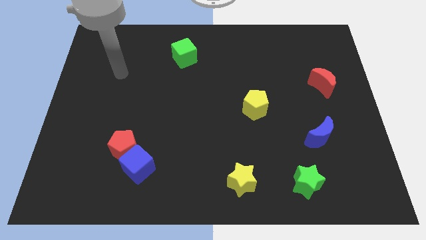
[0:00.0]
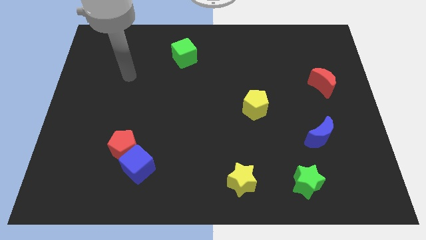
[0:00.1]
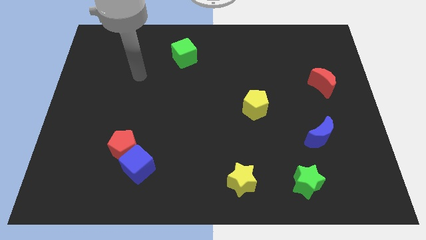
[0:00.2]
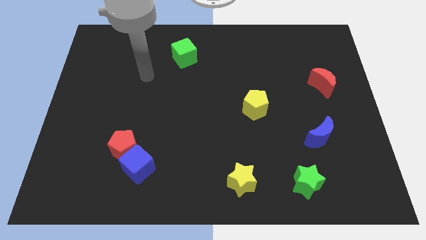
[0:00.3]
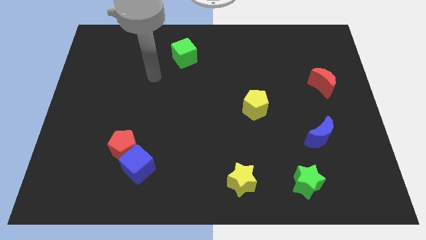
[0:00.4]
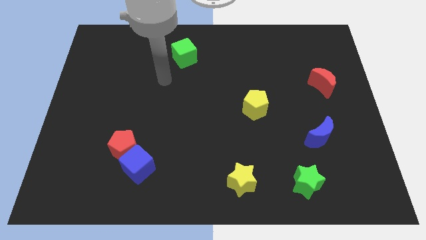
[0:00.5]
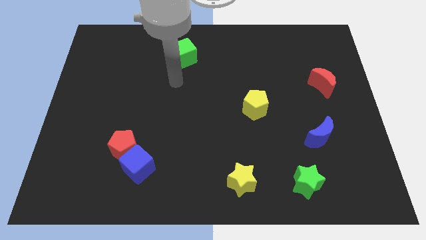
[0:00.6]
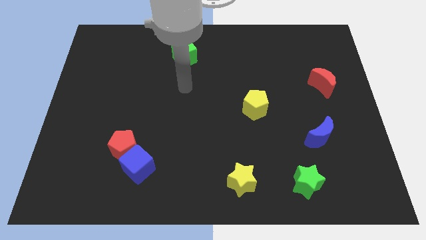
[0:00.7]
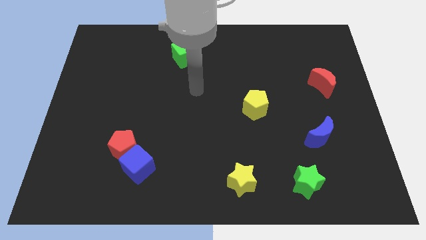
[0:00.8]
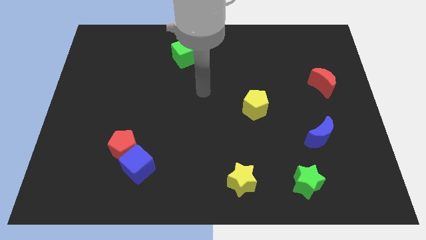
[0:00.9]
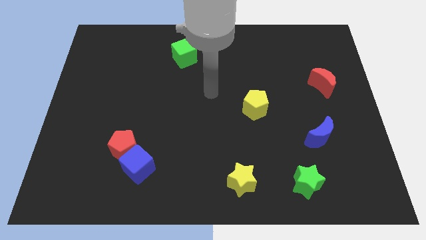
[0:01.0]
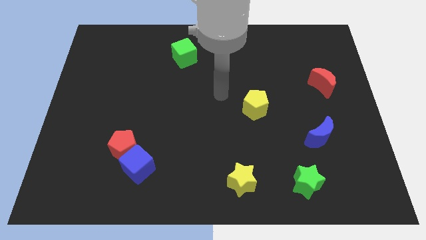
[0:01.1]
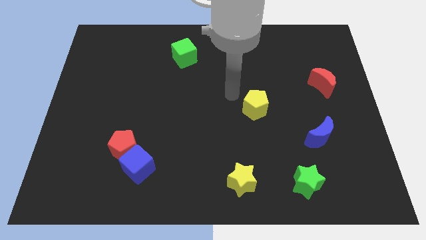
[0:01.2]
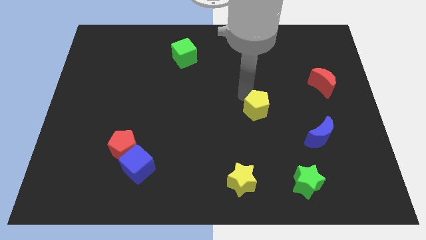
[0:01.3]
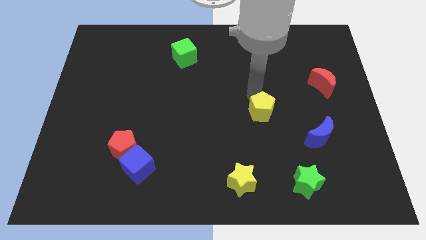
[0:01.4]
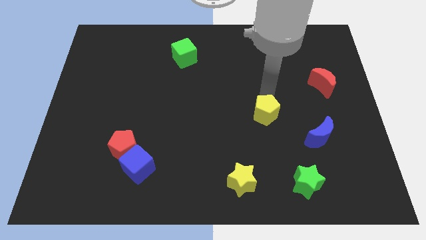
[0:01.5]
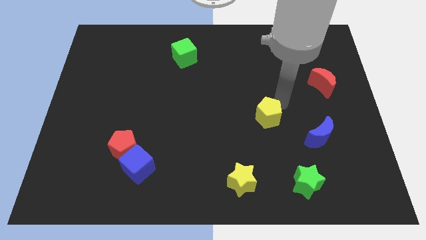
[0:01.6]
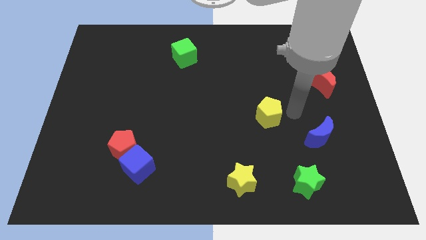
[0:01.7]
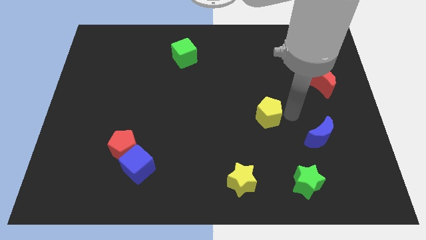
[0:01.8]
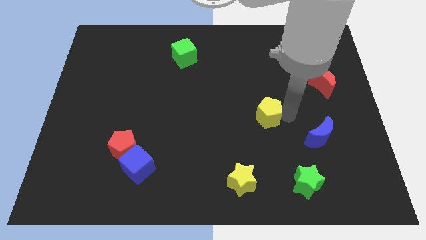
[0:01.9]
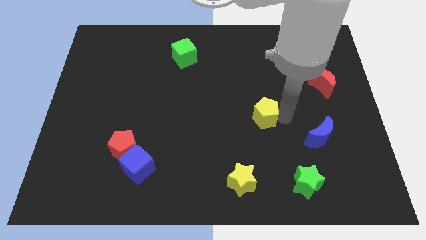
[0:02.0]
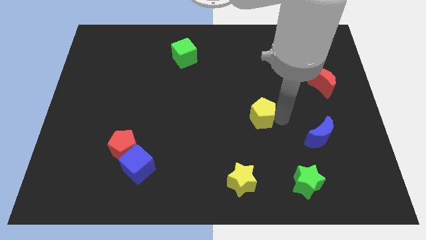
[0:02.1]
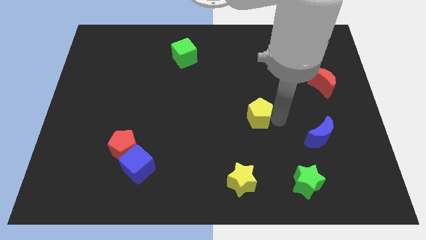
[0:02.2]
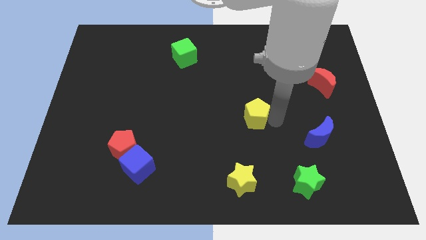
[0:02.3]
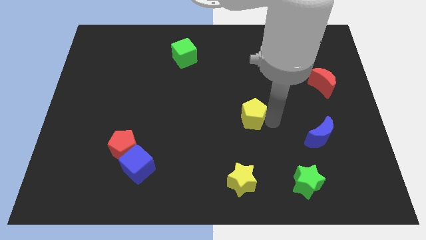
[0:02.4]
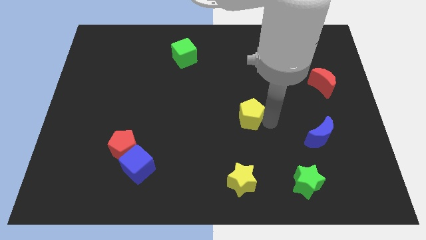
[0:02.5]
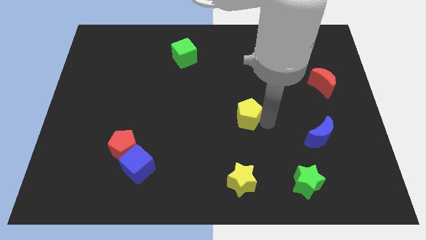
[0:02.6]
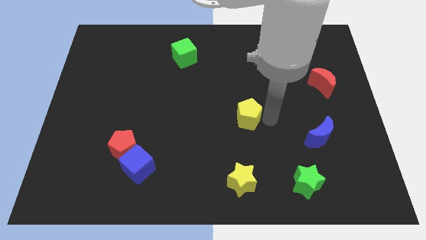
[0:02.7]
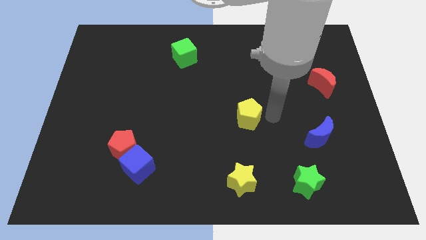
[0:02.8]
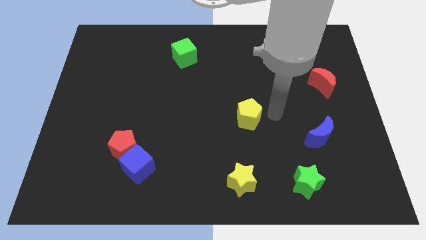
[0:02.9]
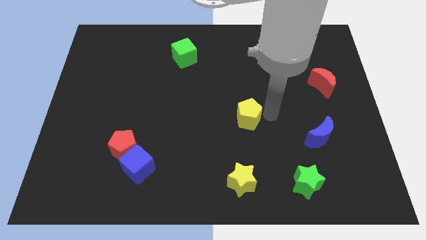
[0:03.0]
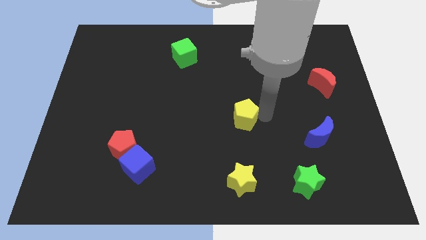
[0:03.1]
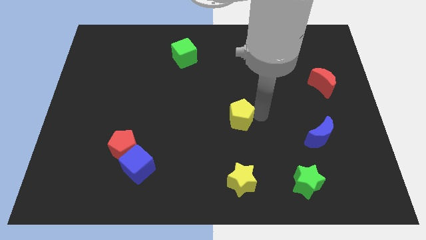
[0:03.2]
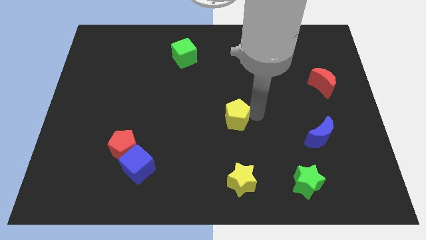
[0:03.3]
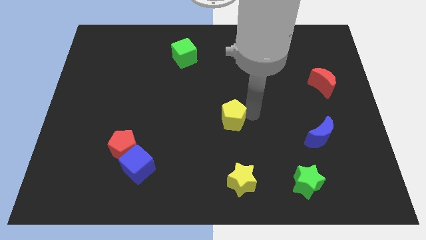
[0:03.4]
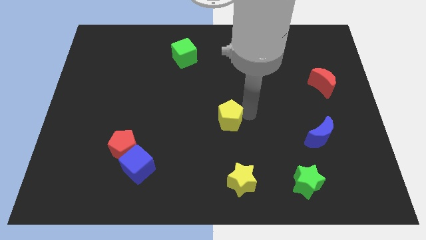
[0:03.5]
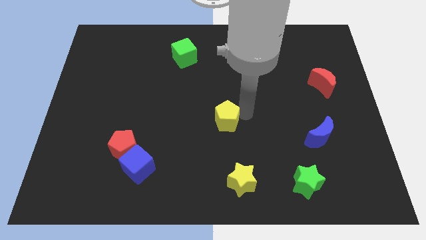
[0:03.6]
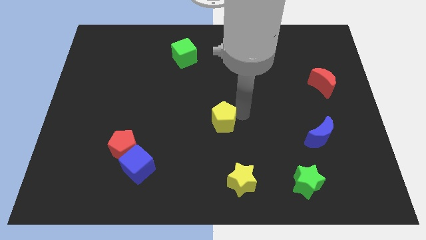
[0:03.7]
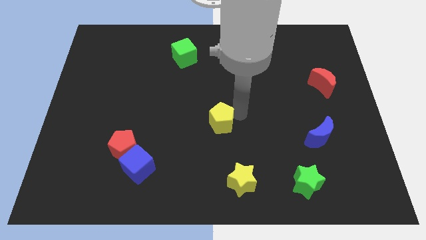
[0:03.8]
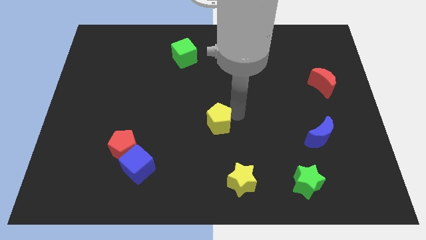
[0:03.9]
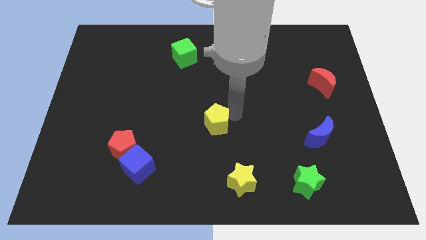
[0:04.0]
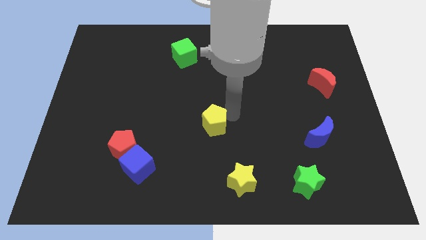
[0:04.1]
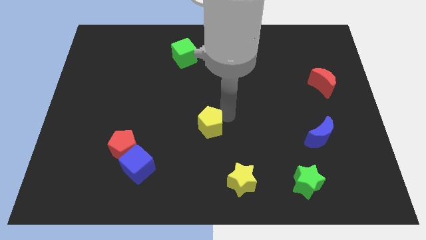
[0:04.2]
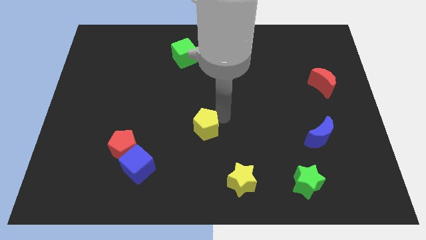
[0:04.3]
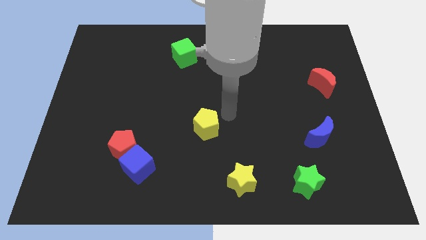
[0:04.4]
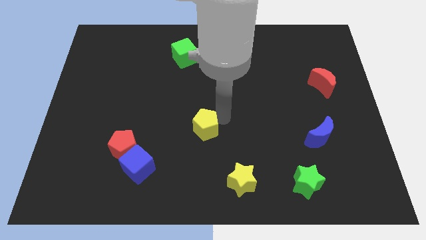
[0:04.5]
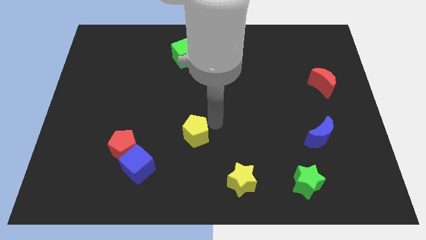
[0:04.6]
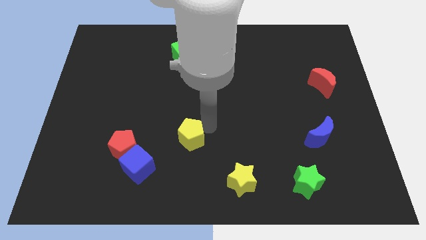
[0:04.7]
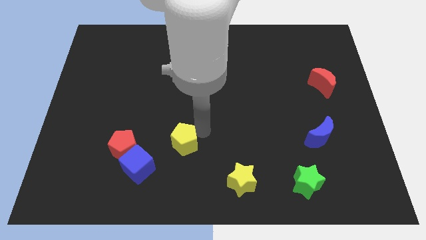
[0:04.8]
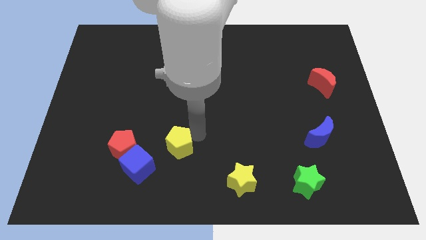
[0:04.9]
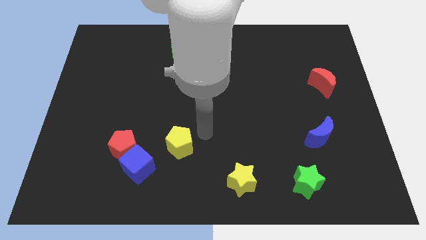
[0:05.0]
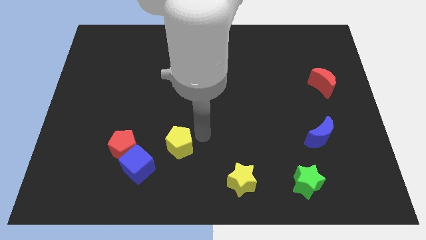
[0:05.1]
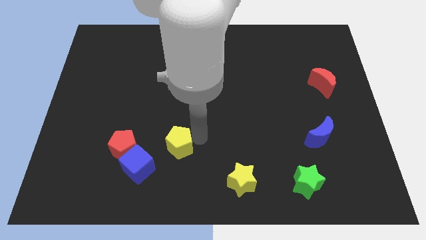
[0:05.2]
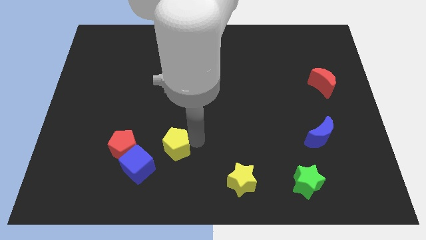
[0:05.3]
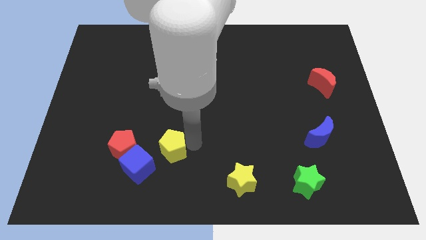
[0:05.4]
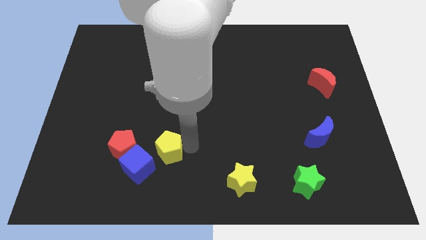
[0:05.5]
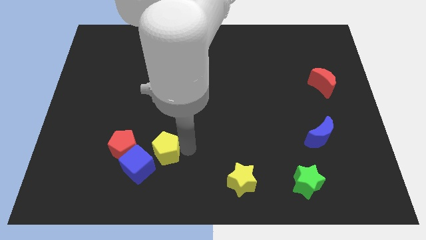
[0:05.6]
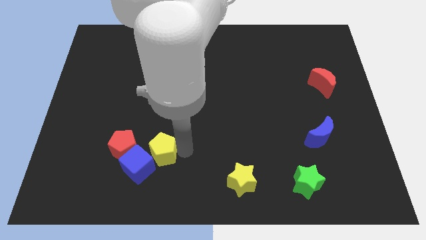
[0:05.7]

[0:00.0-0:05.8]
push the yellow pentagon towards the blue cube

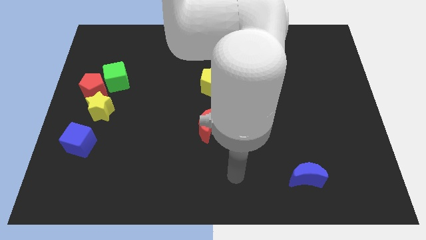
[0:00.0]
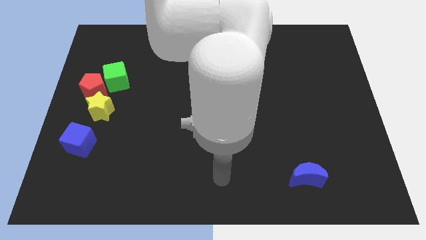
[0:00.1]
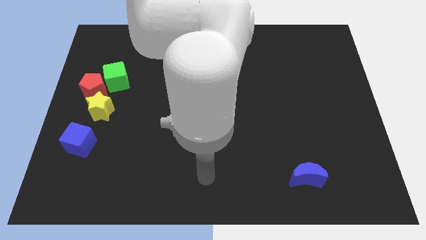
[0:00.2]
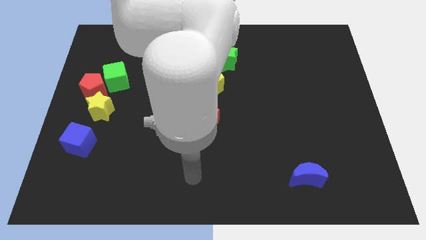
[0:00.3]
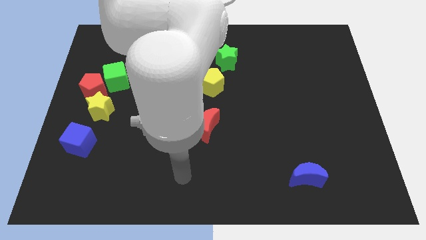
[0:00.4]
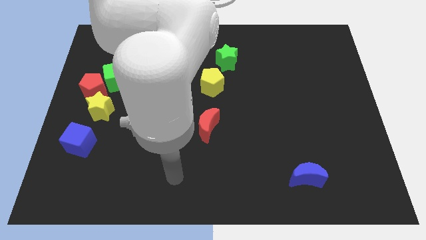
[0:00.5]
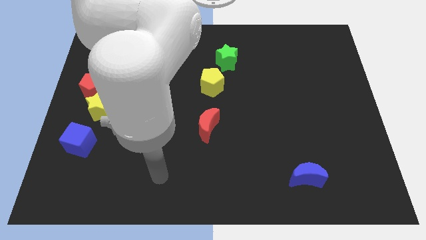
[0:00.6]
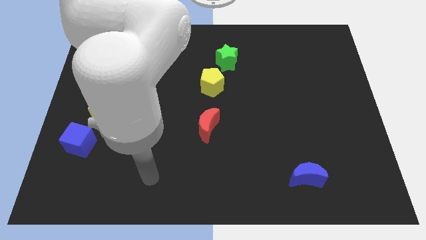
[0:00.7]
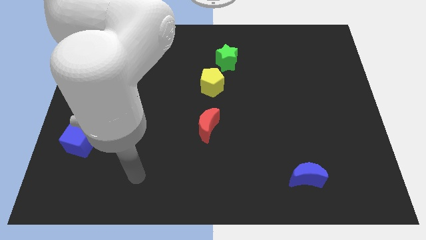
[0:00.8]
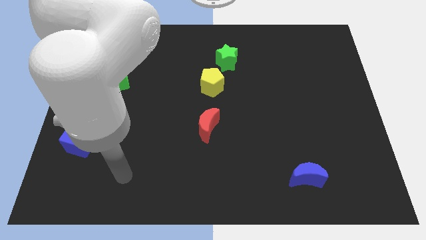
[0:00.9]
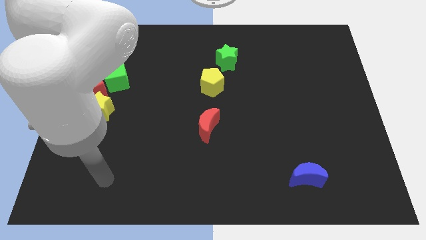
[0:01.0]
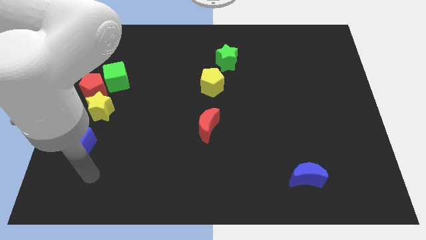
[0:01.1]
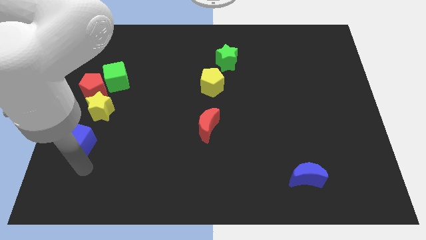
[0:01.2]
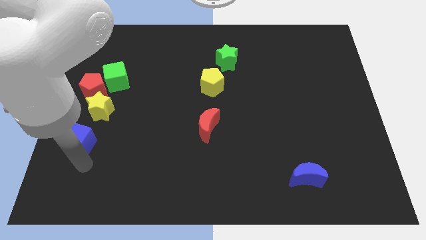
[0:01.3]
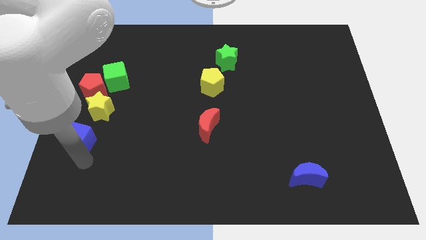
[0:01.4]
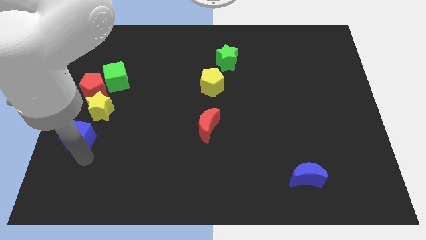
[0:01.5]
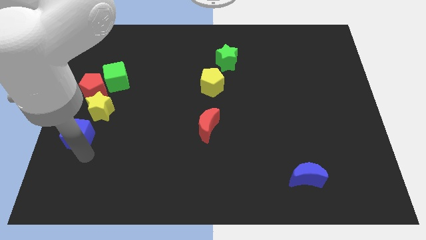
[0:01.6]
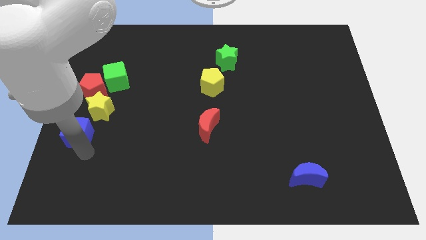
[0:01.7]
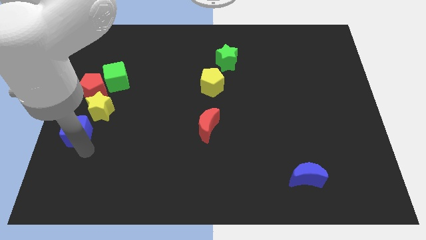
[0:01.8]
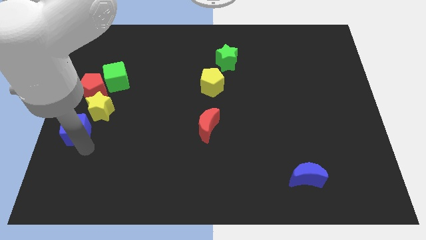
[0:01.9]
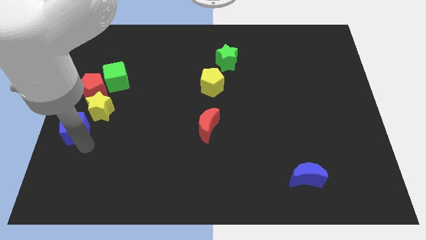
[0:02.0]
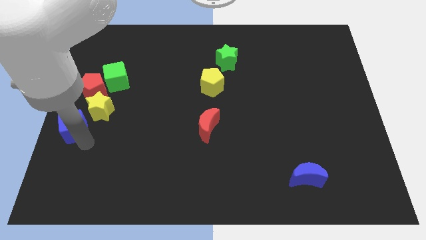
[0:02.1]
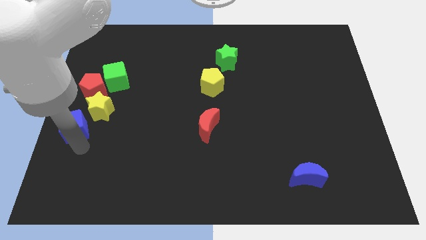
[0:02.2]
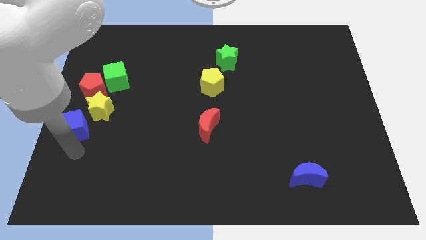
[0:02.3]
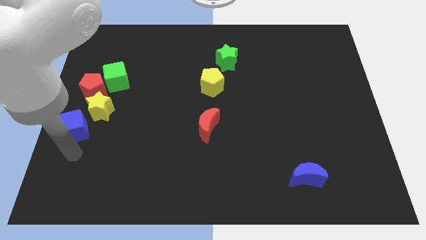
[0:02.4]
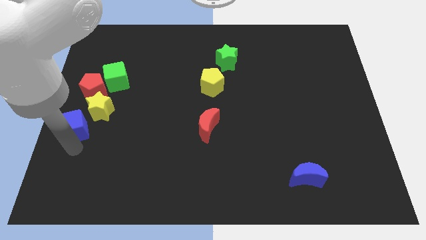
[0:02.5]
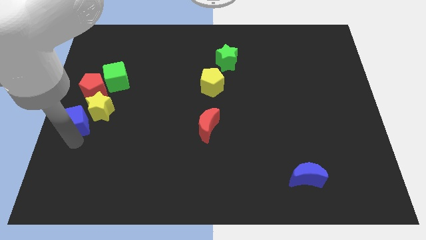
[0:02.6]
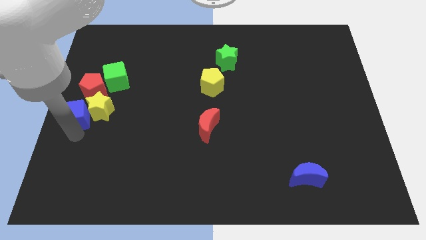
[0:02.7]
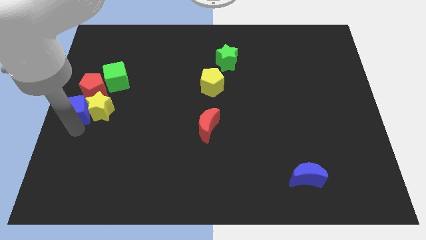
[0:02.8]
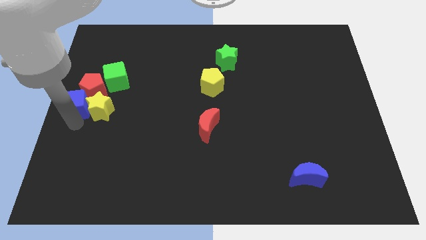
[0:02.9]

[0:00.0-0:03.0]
put the blue cube close to the red pentagon
